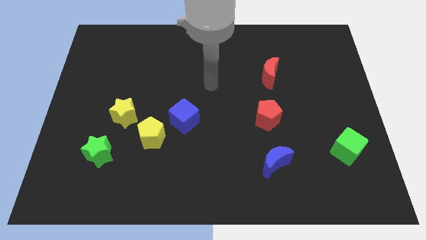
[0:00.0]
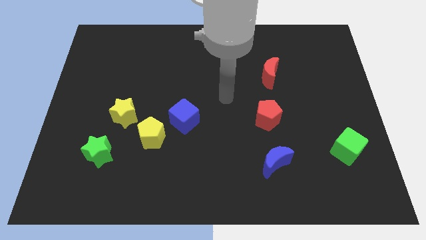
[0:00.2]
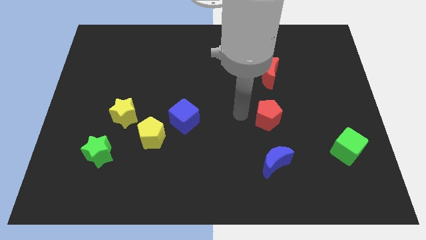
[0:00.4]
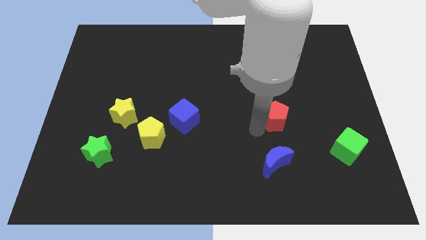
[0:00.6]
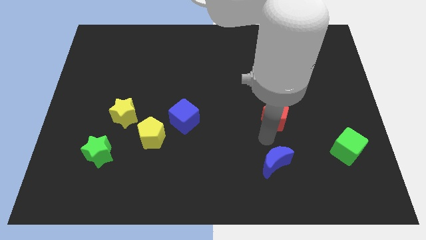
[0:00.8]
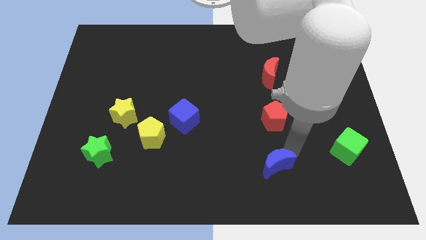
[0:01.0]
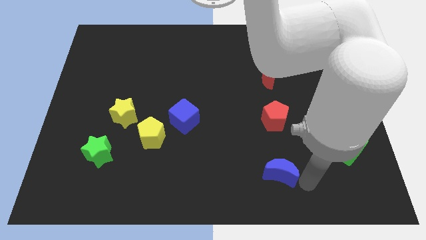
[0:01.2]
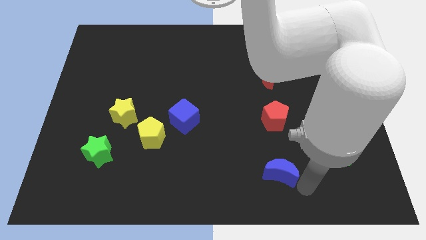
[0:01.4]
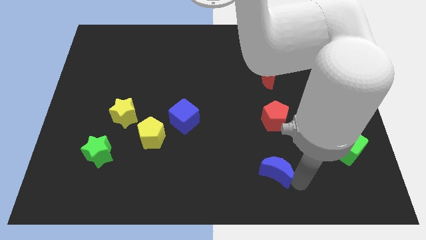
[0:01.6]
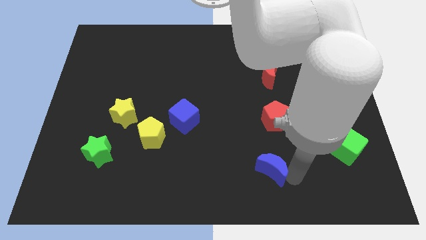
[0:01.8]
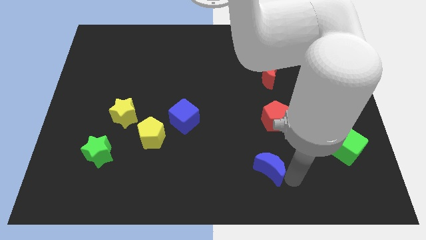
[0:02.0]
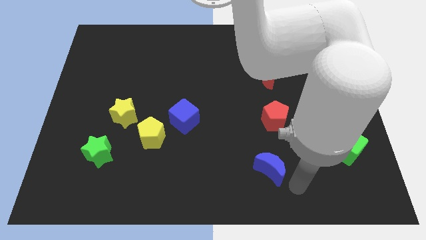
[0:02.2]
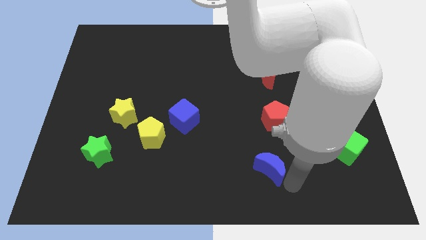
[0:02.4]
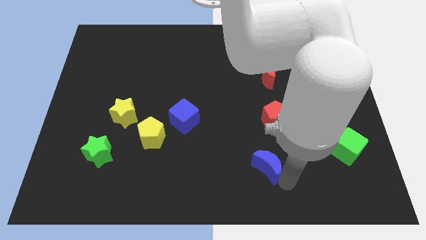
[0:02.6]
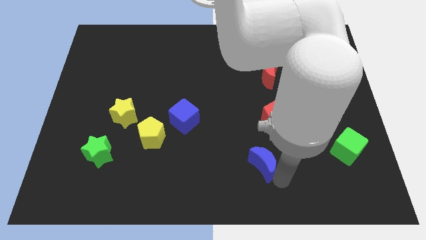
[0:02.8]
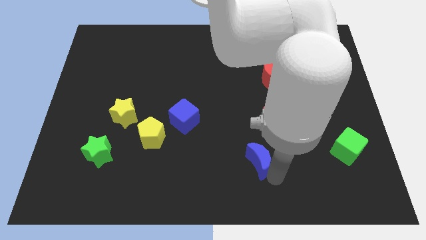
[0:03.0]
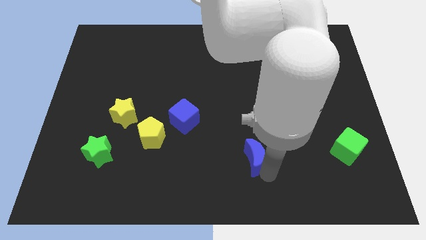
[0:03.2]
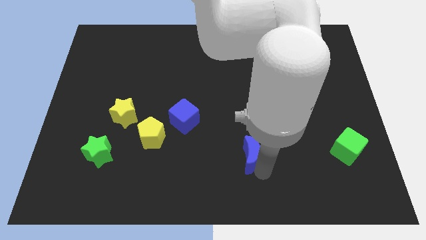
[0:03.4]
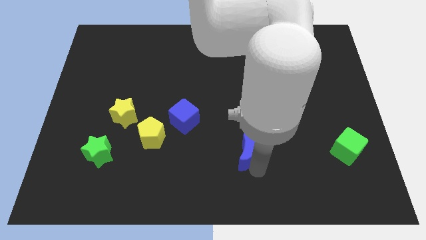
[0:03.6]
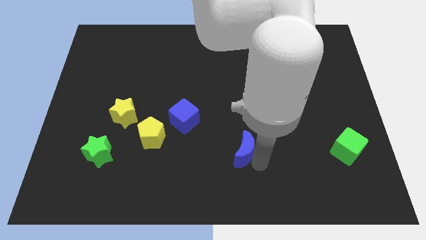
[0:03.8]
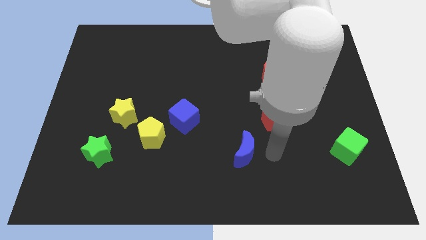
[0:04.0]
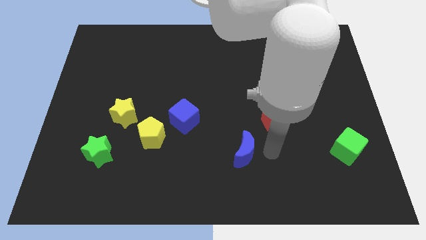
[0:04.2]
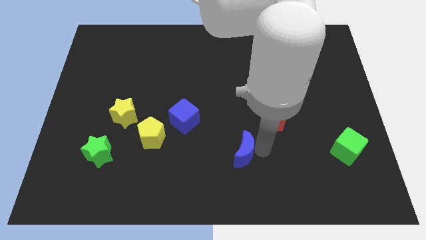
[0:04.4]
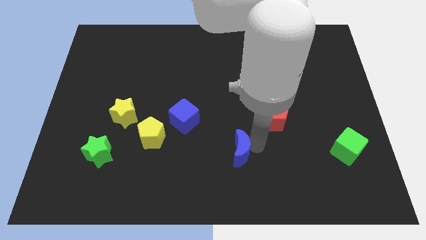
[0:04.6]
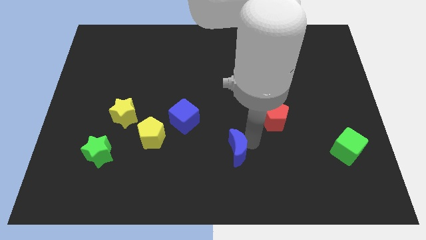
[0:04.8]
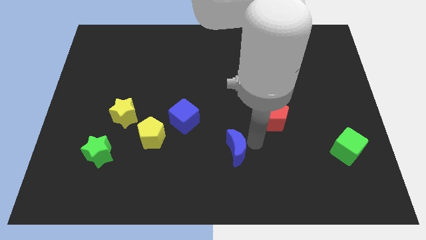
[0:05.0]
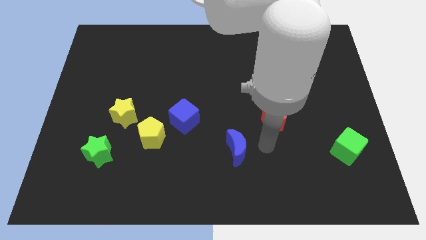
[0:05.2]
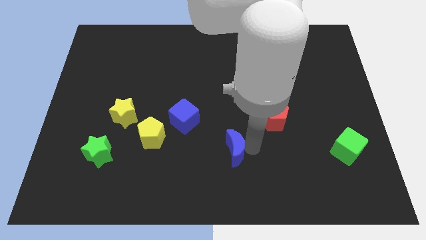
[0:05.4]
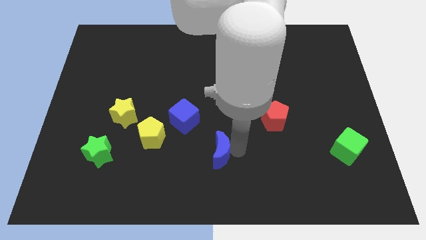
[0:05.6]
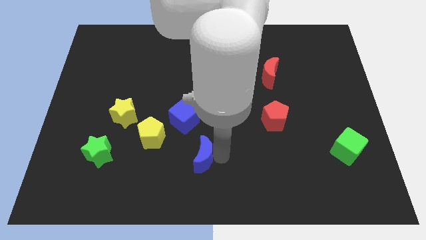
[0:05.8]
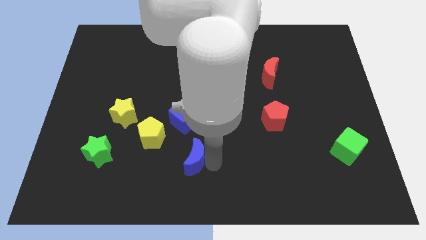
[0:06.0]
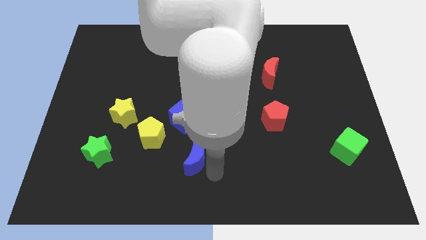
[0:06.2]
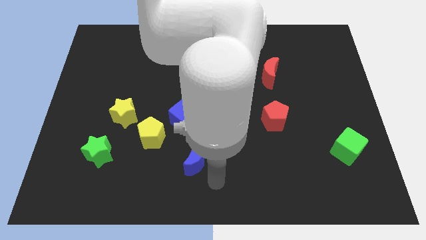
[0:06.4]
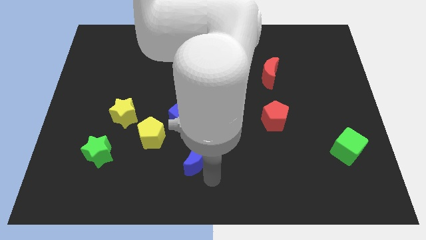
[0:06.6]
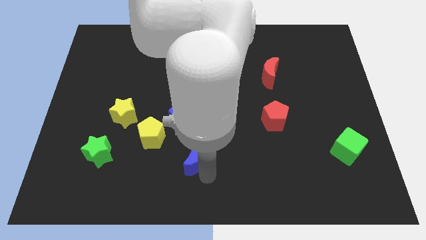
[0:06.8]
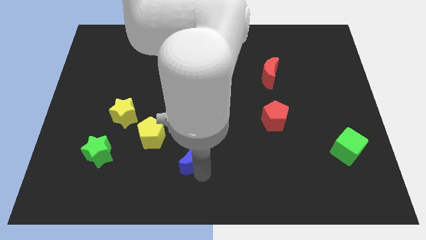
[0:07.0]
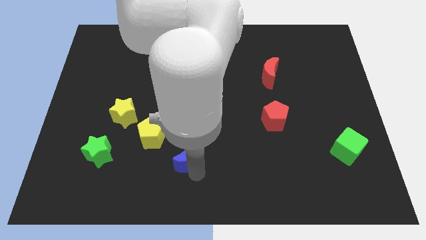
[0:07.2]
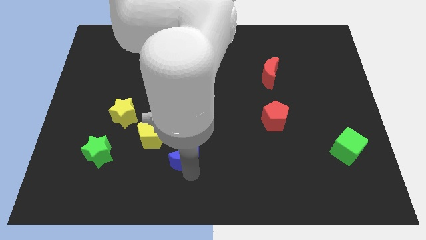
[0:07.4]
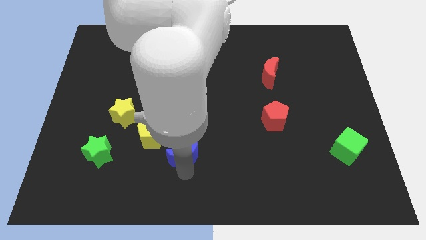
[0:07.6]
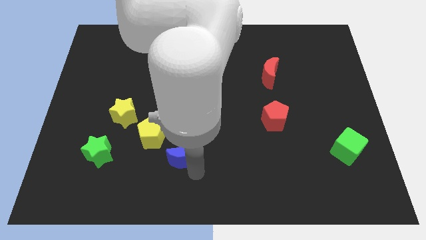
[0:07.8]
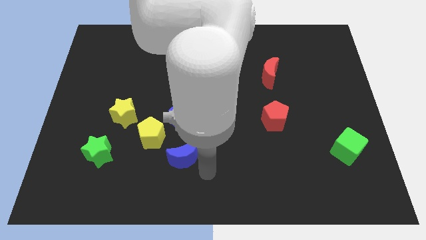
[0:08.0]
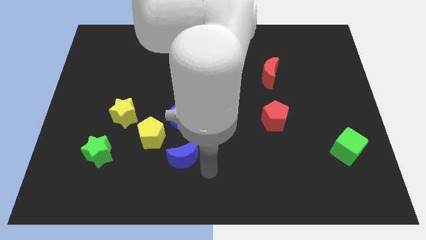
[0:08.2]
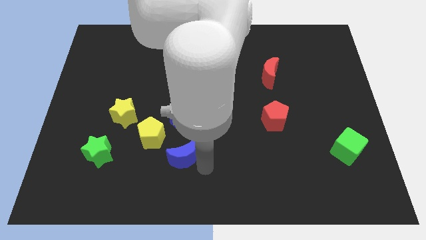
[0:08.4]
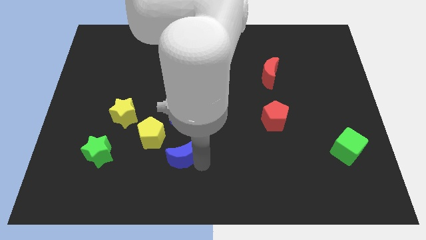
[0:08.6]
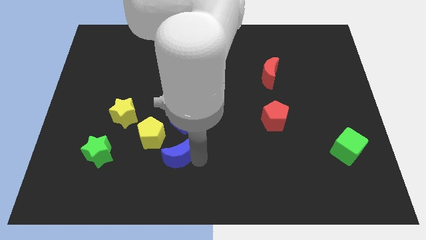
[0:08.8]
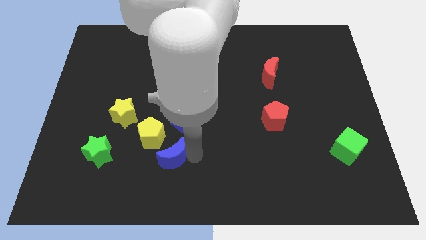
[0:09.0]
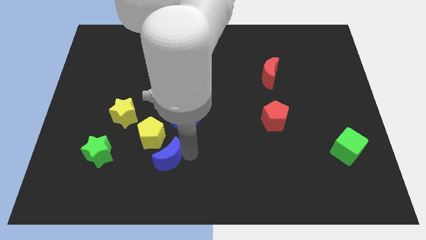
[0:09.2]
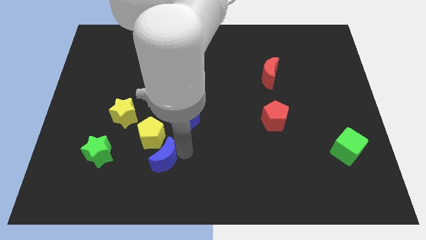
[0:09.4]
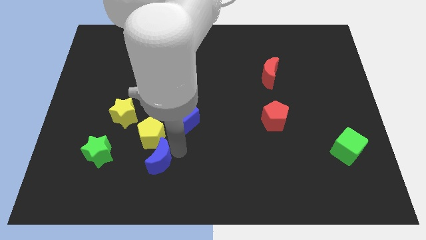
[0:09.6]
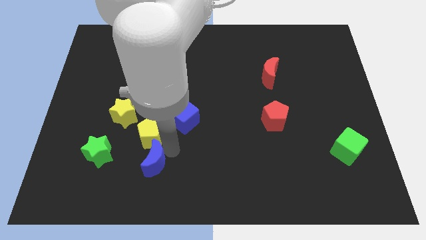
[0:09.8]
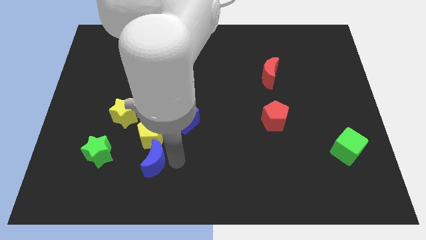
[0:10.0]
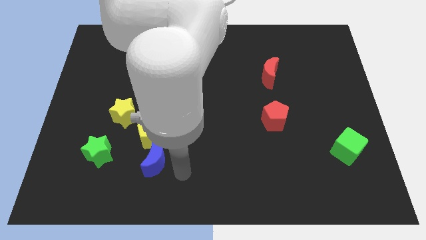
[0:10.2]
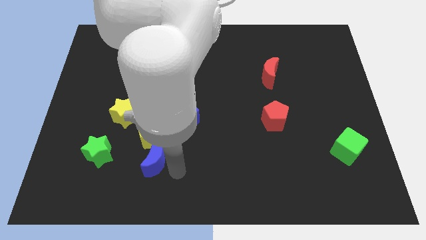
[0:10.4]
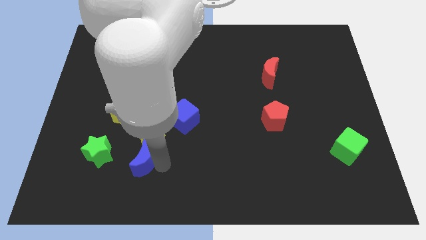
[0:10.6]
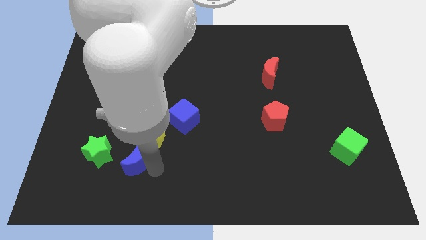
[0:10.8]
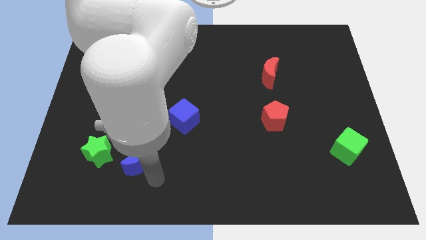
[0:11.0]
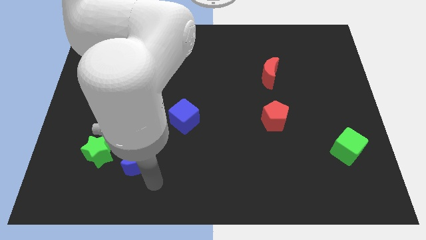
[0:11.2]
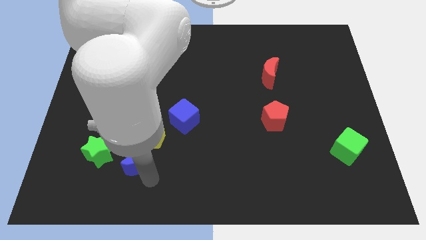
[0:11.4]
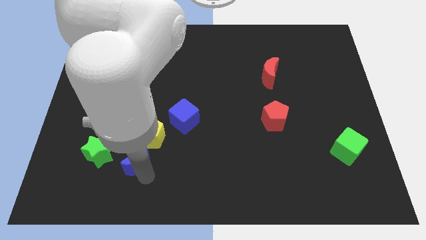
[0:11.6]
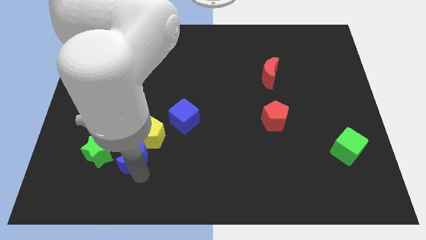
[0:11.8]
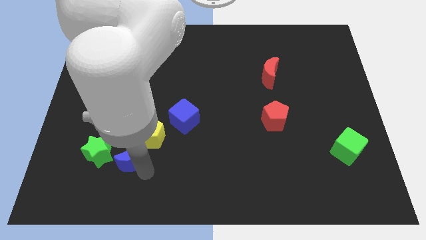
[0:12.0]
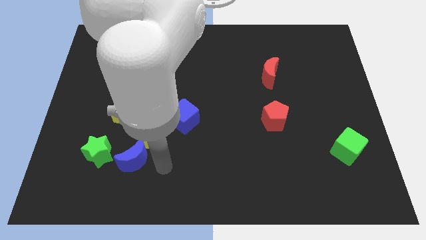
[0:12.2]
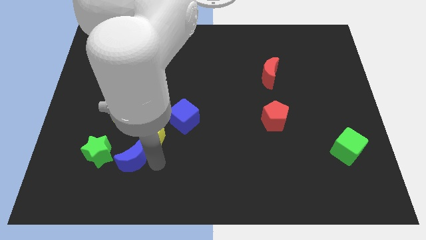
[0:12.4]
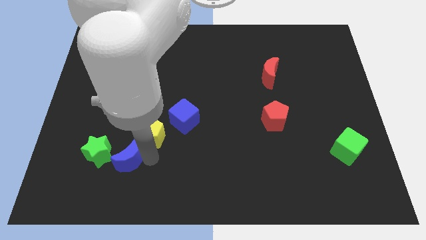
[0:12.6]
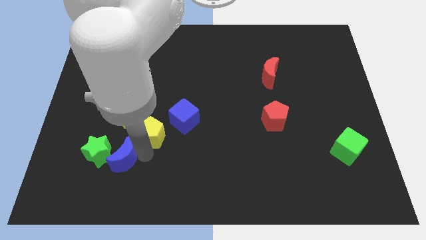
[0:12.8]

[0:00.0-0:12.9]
move the blue moon towards the green star

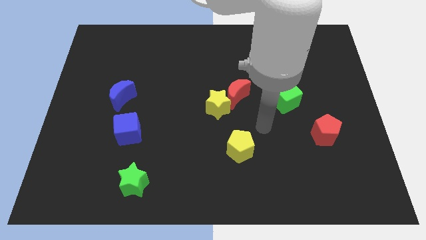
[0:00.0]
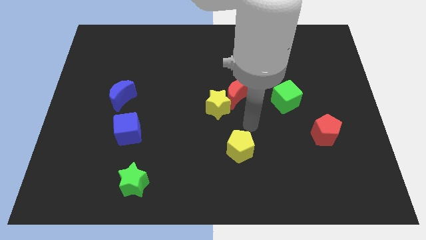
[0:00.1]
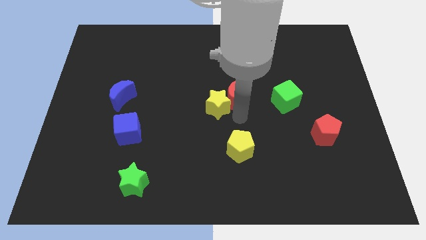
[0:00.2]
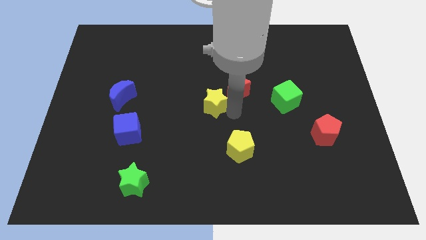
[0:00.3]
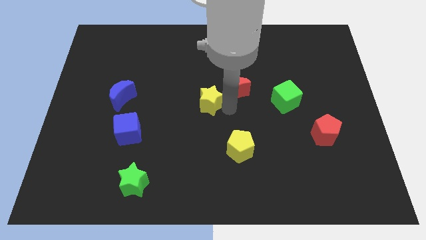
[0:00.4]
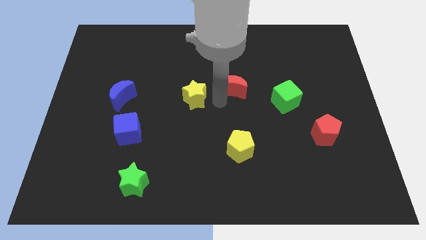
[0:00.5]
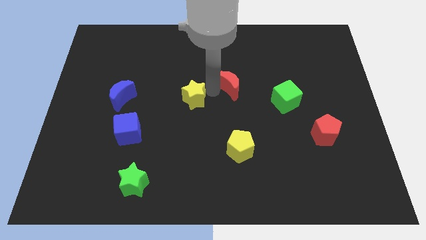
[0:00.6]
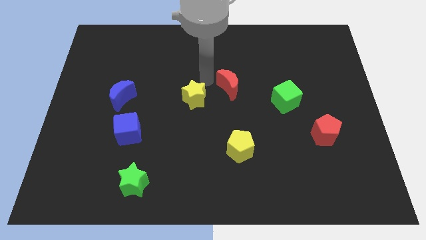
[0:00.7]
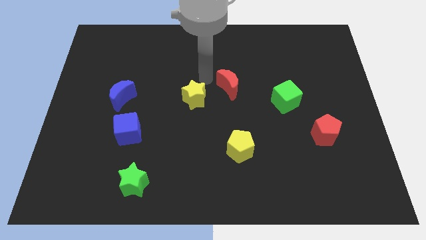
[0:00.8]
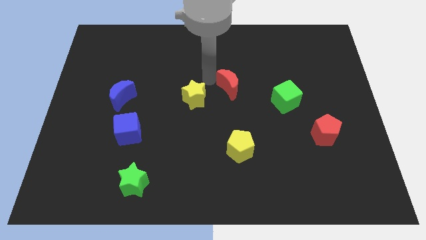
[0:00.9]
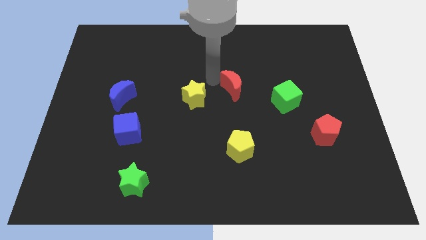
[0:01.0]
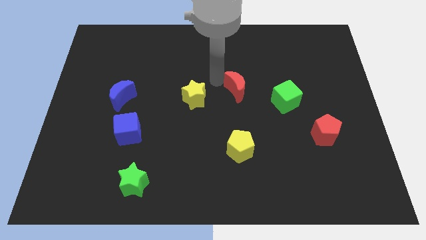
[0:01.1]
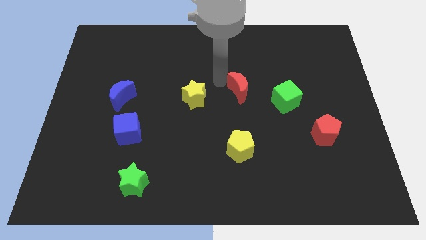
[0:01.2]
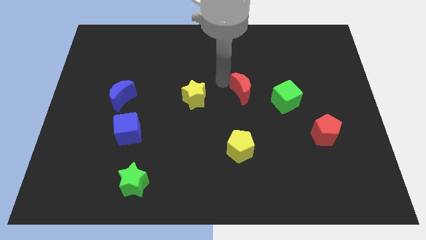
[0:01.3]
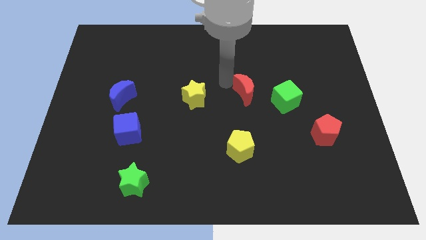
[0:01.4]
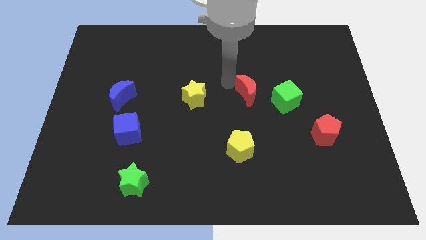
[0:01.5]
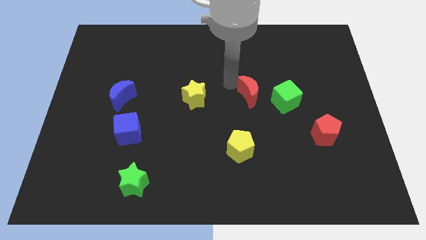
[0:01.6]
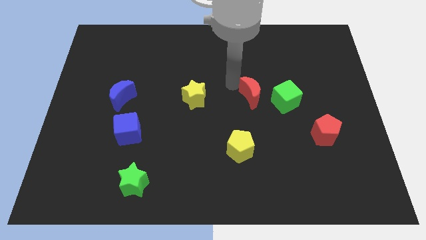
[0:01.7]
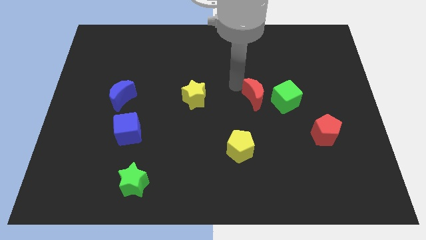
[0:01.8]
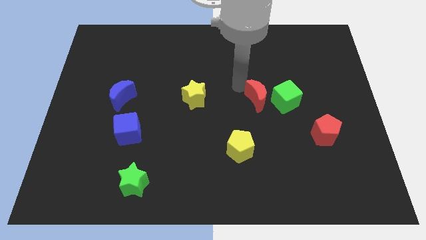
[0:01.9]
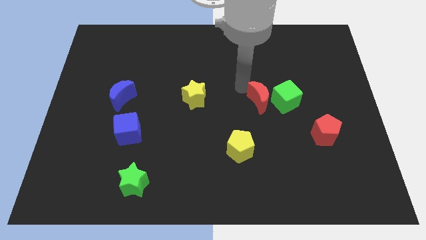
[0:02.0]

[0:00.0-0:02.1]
move the red moon towards the green cube
